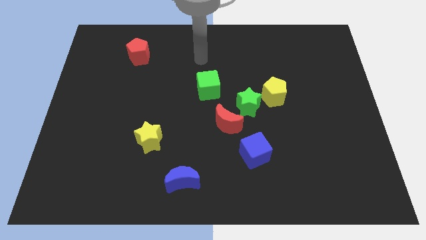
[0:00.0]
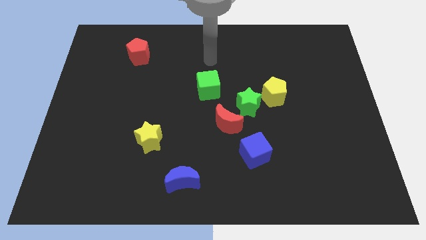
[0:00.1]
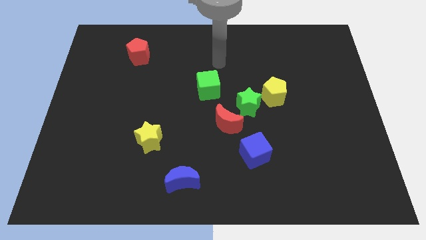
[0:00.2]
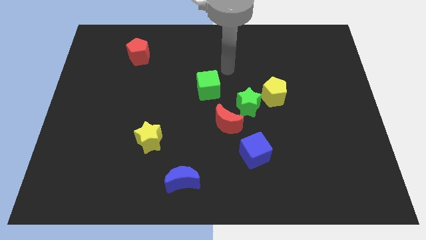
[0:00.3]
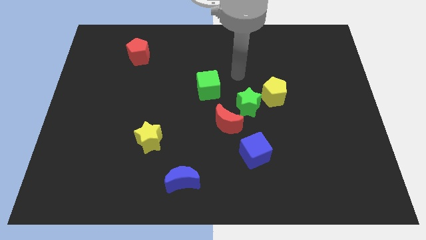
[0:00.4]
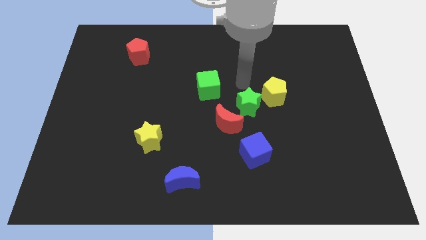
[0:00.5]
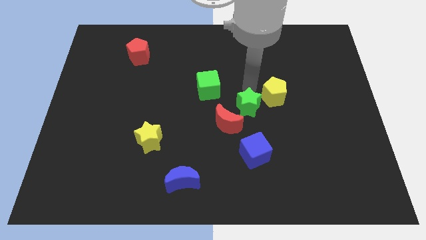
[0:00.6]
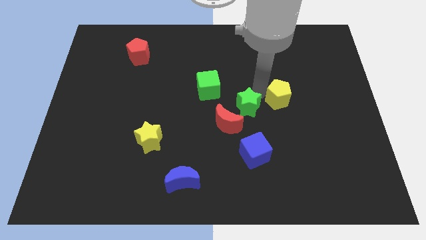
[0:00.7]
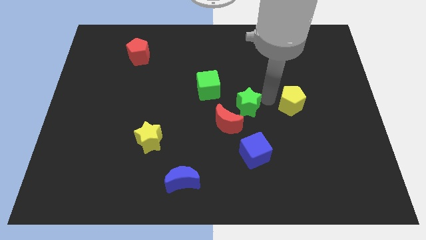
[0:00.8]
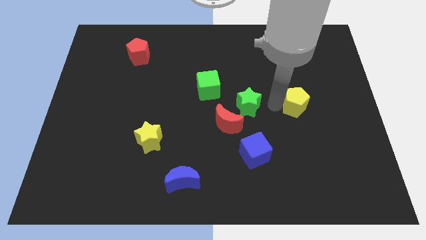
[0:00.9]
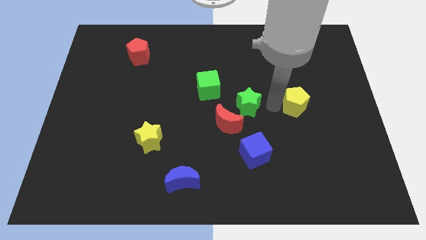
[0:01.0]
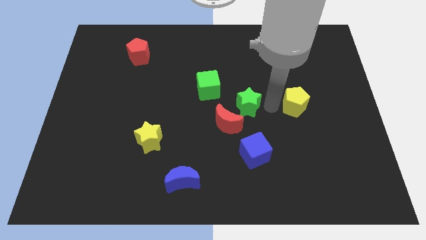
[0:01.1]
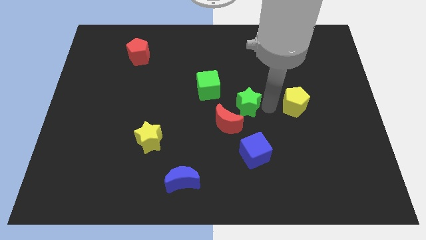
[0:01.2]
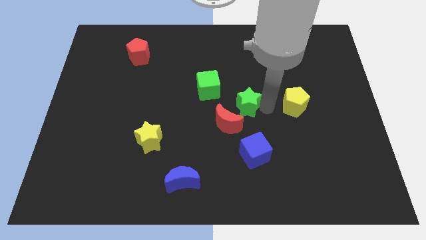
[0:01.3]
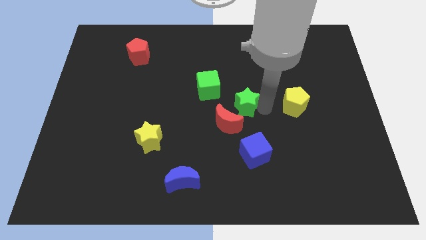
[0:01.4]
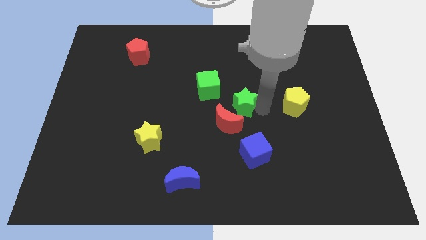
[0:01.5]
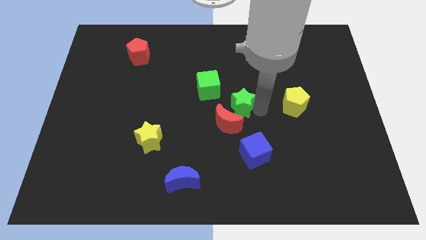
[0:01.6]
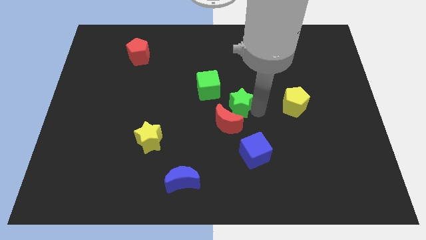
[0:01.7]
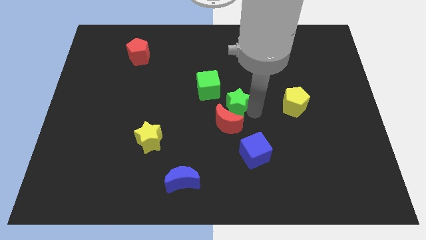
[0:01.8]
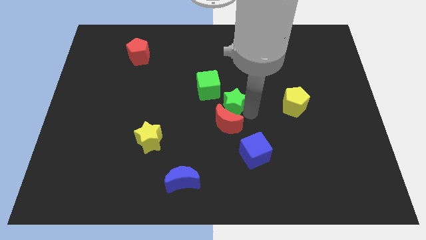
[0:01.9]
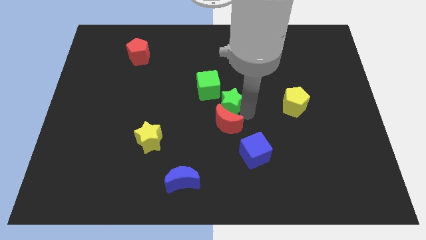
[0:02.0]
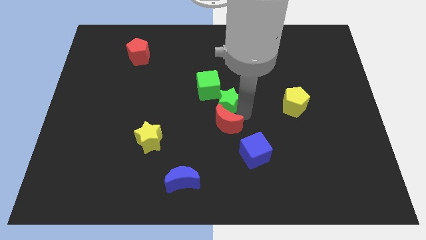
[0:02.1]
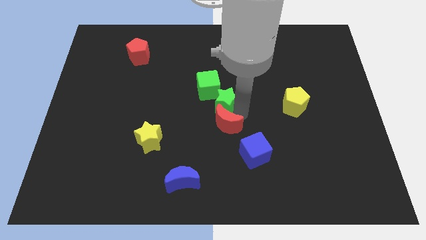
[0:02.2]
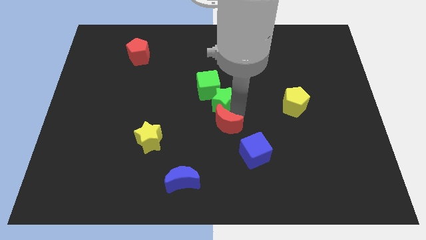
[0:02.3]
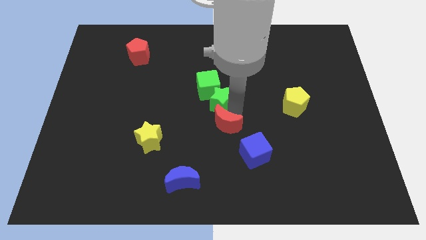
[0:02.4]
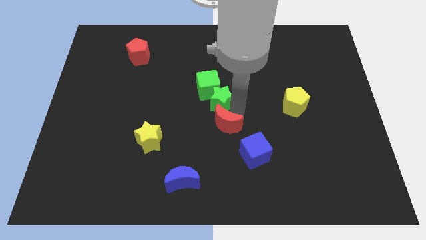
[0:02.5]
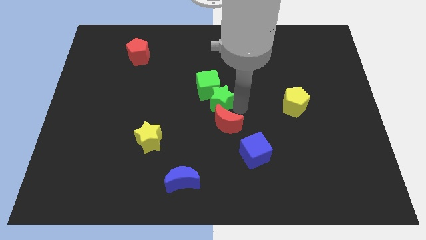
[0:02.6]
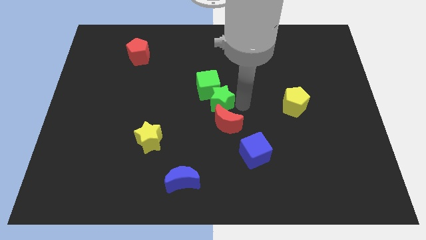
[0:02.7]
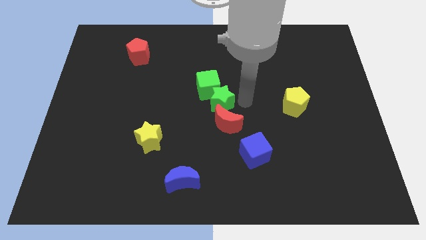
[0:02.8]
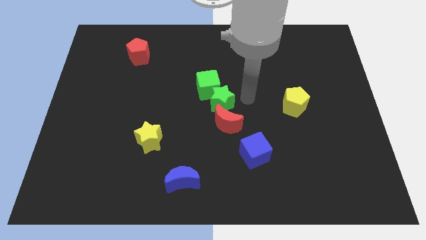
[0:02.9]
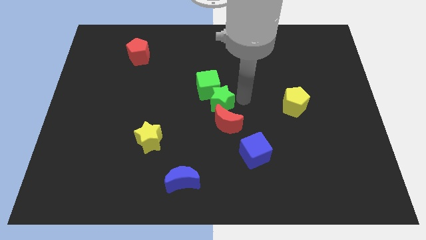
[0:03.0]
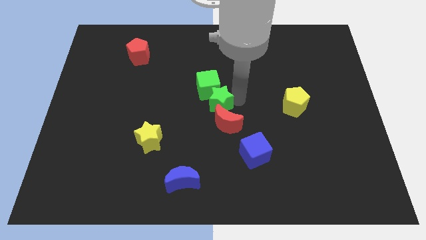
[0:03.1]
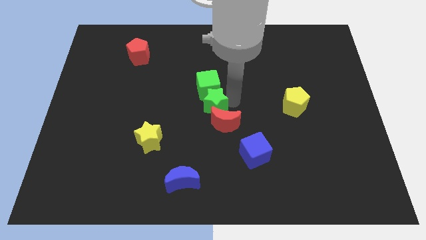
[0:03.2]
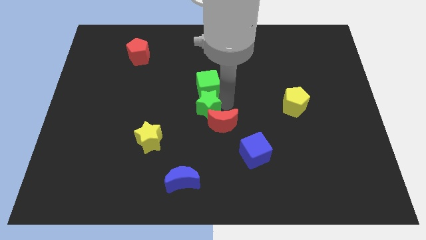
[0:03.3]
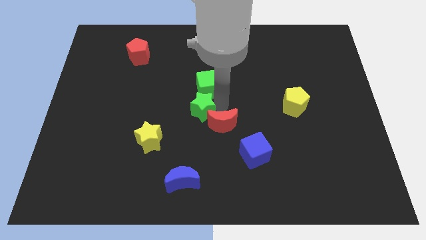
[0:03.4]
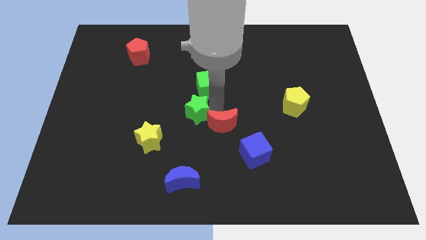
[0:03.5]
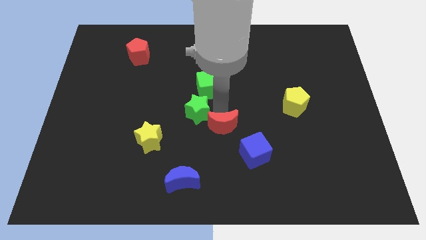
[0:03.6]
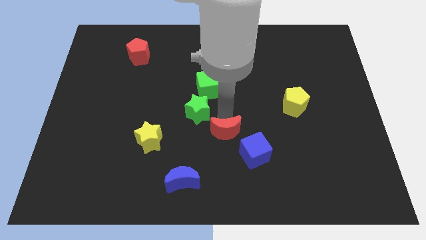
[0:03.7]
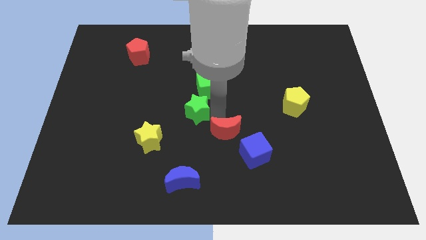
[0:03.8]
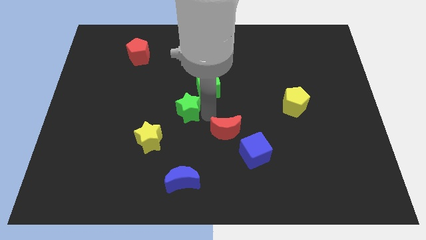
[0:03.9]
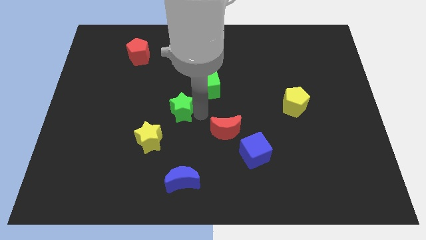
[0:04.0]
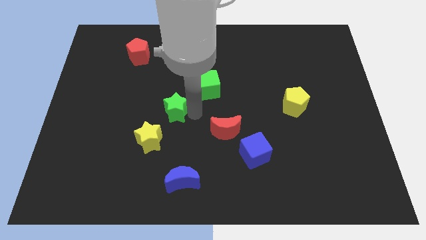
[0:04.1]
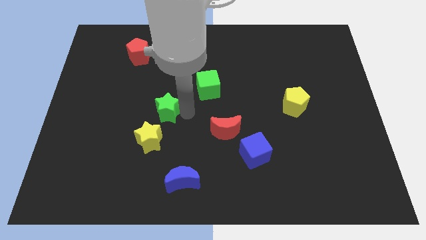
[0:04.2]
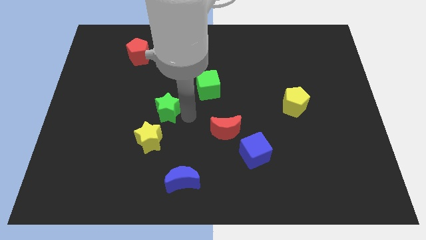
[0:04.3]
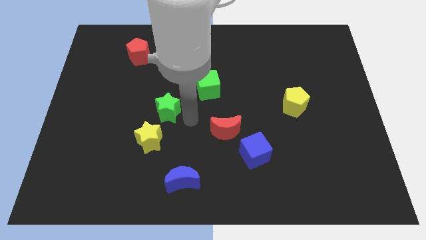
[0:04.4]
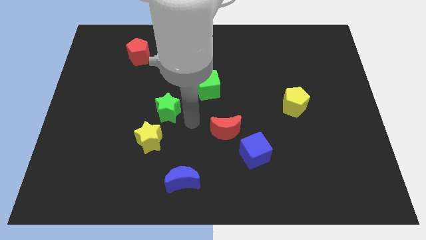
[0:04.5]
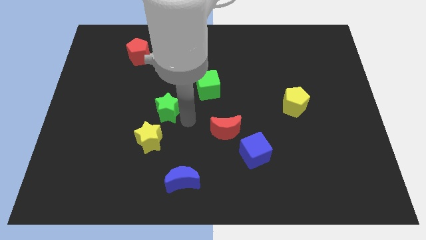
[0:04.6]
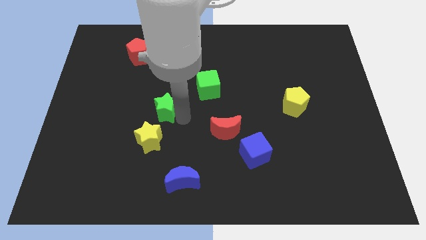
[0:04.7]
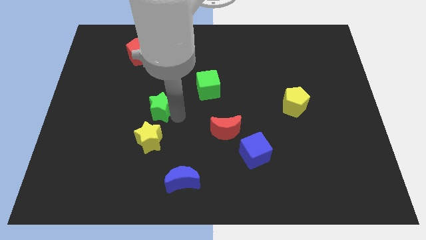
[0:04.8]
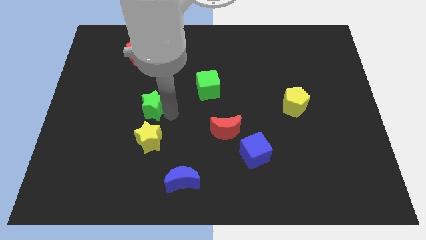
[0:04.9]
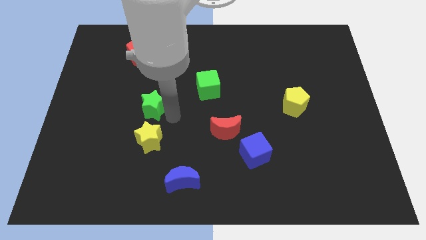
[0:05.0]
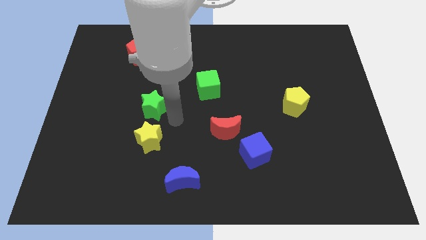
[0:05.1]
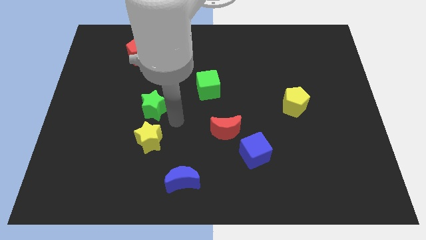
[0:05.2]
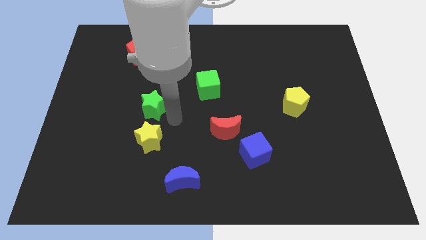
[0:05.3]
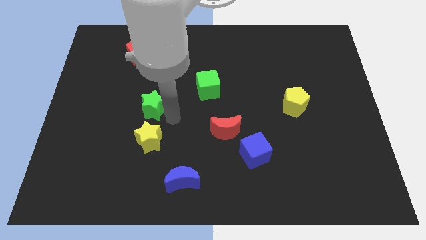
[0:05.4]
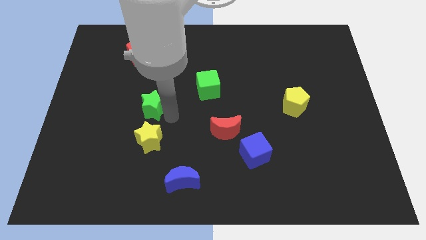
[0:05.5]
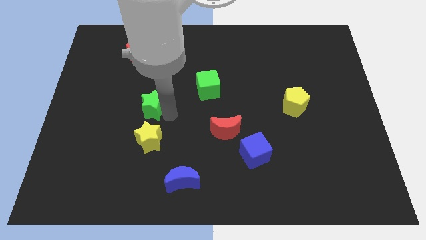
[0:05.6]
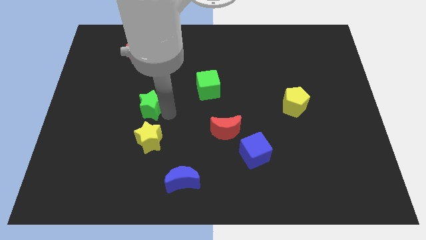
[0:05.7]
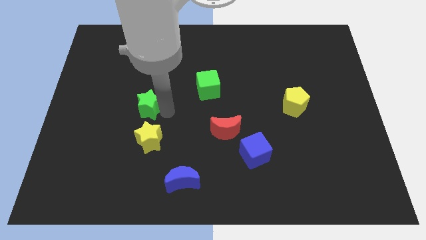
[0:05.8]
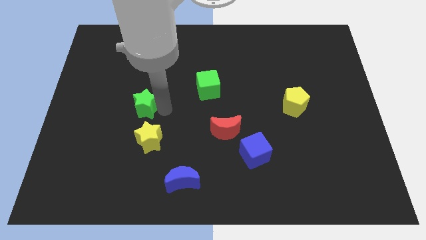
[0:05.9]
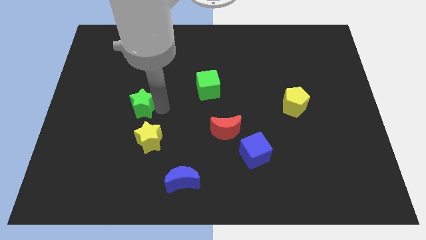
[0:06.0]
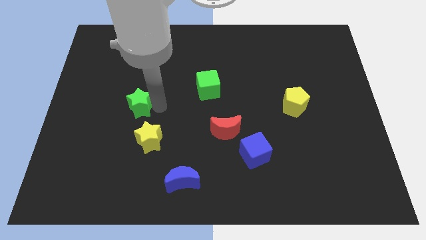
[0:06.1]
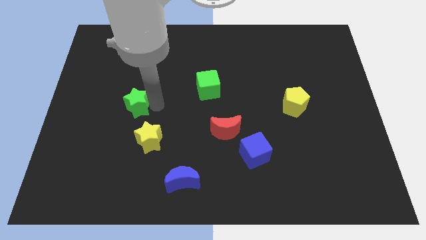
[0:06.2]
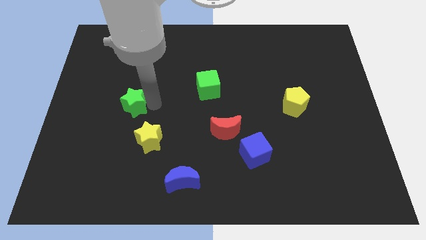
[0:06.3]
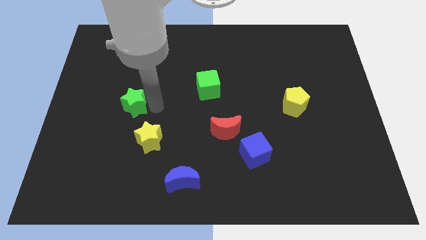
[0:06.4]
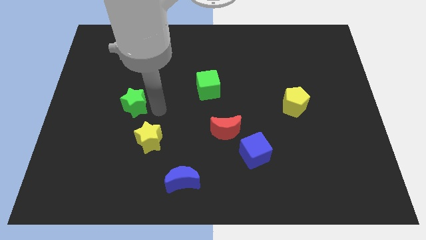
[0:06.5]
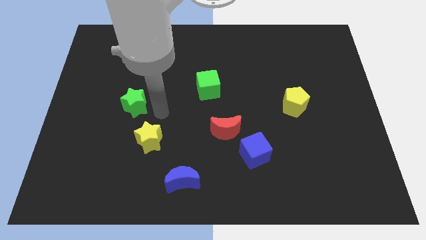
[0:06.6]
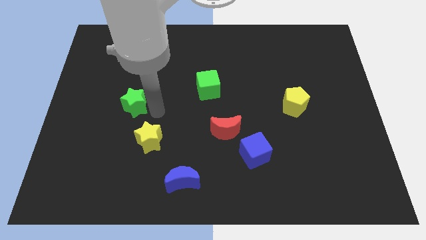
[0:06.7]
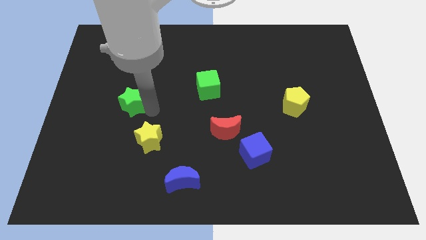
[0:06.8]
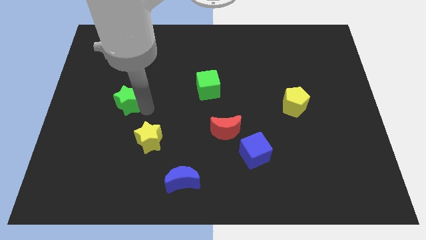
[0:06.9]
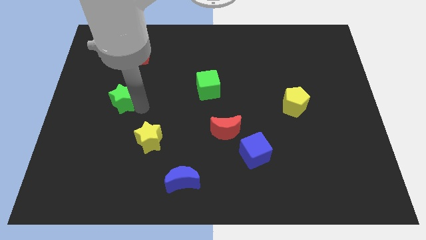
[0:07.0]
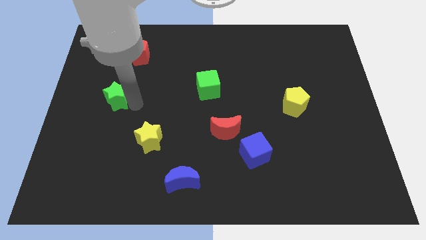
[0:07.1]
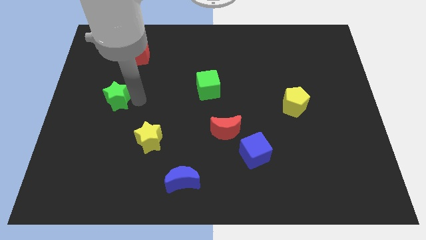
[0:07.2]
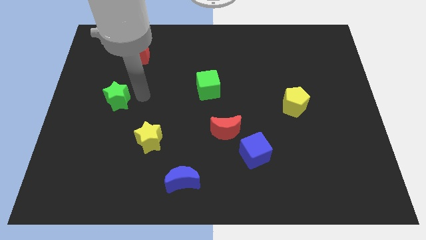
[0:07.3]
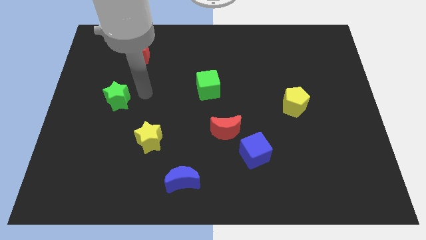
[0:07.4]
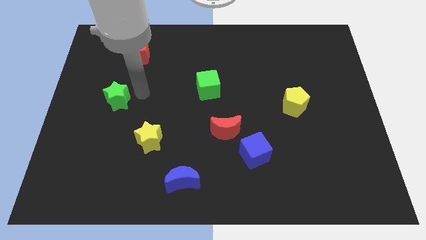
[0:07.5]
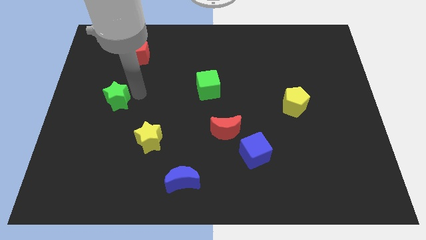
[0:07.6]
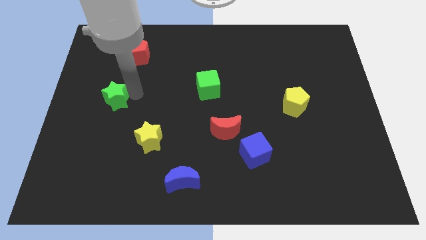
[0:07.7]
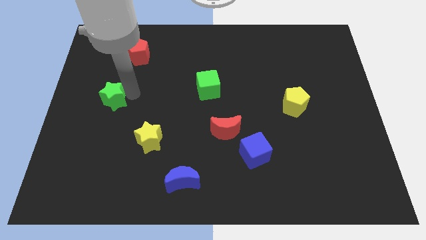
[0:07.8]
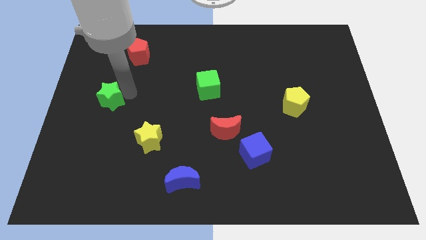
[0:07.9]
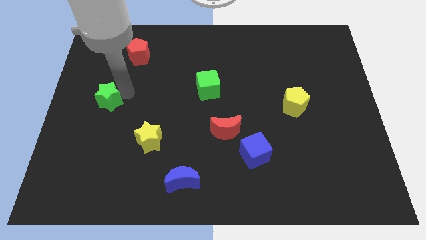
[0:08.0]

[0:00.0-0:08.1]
put the green star to the center left
